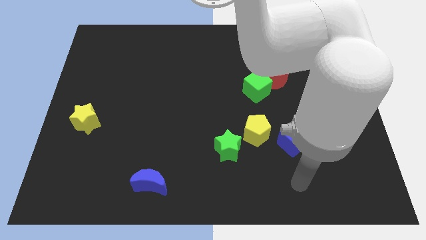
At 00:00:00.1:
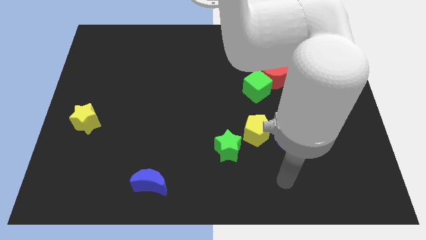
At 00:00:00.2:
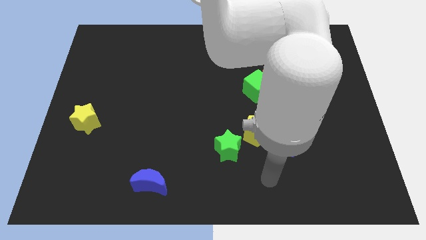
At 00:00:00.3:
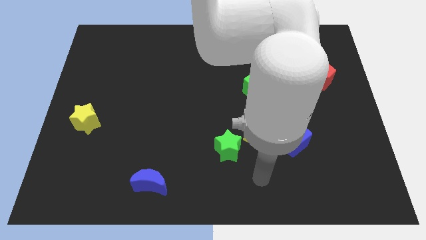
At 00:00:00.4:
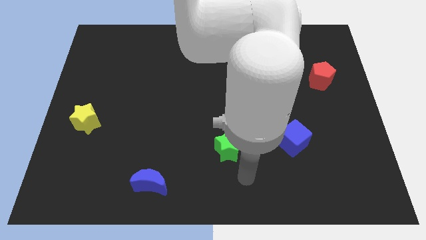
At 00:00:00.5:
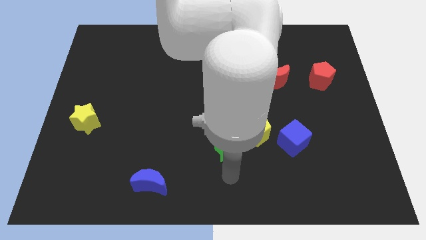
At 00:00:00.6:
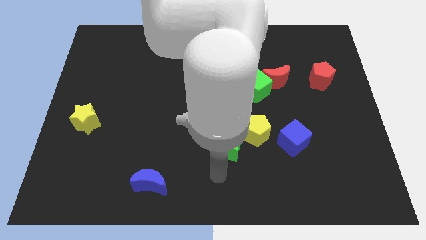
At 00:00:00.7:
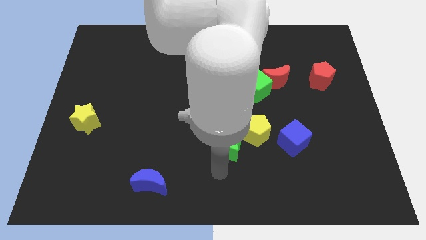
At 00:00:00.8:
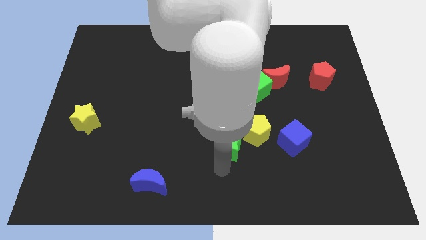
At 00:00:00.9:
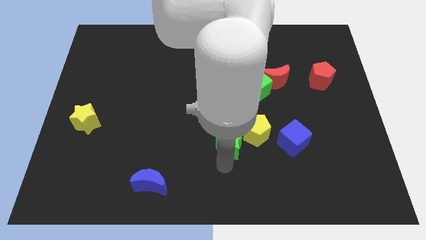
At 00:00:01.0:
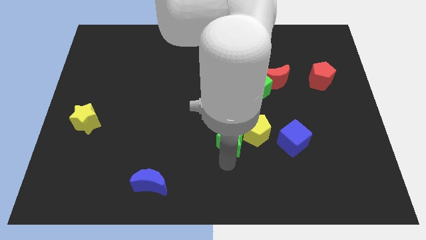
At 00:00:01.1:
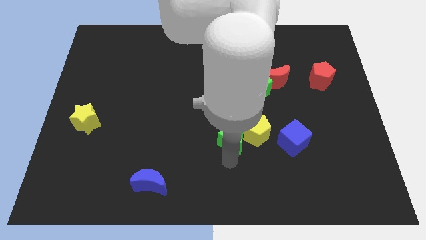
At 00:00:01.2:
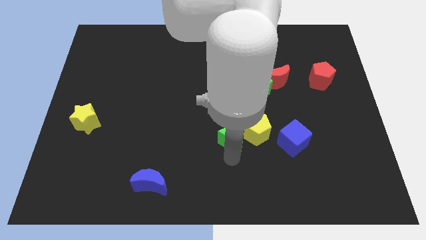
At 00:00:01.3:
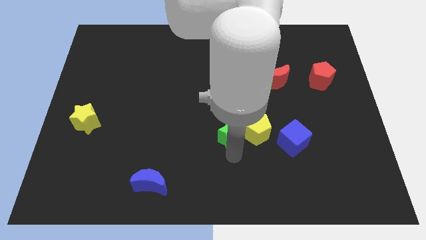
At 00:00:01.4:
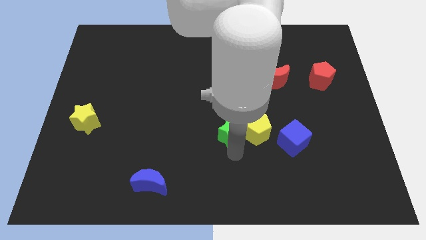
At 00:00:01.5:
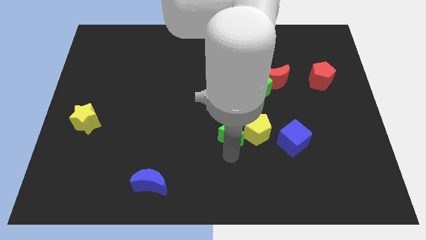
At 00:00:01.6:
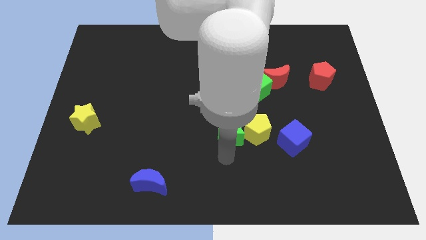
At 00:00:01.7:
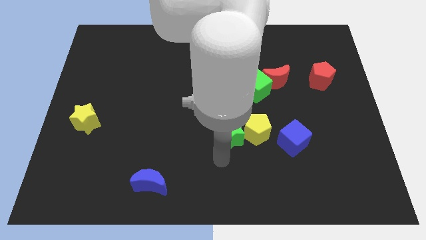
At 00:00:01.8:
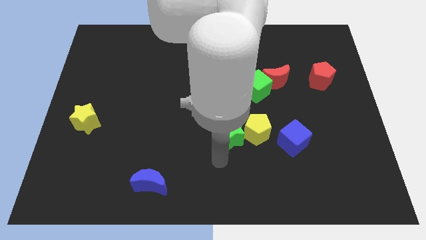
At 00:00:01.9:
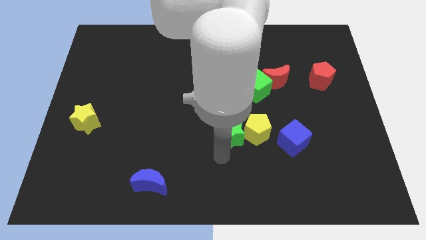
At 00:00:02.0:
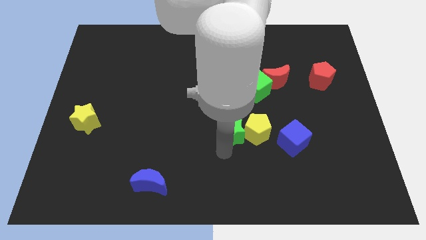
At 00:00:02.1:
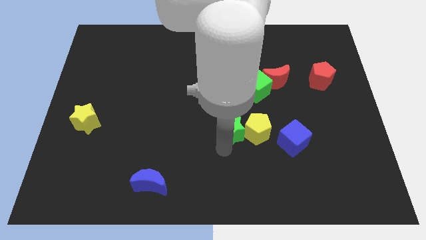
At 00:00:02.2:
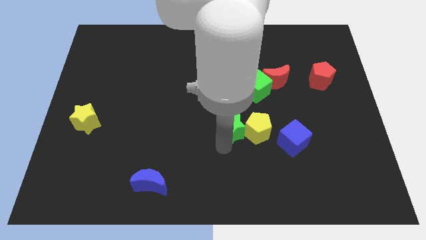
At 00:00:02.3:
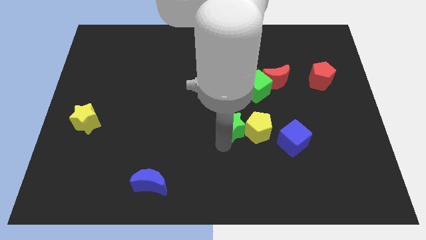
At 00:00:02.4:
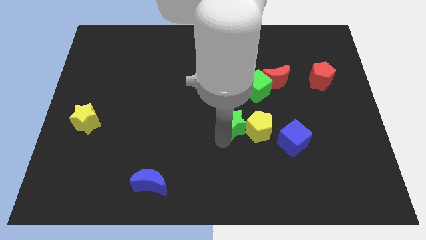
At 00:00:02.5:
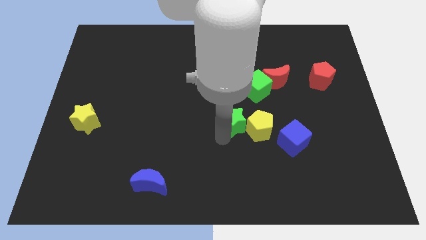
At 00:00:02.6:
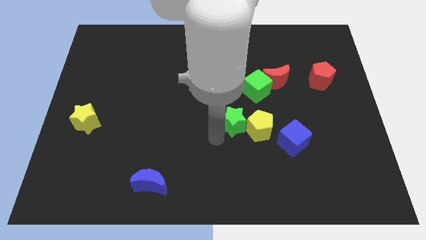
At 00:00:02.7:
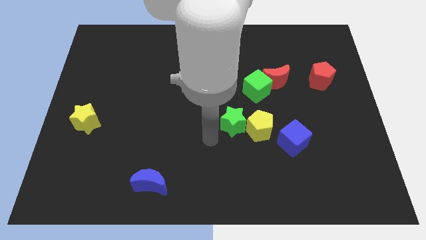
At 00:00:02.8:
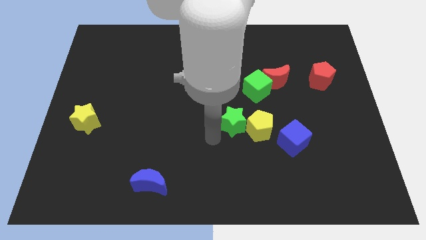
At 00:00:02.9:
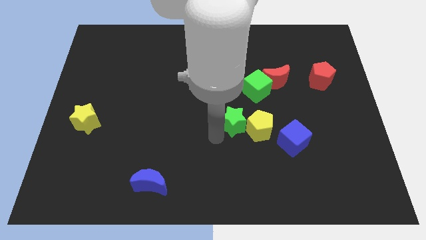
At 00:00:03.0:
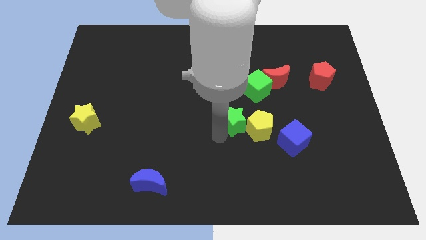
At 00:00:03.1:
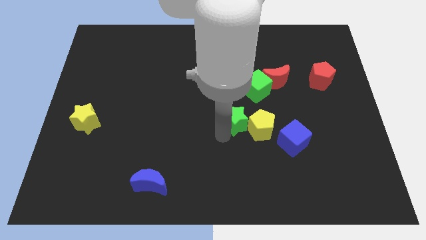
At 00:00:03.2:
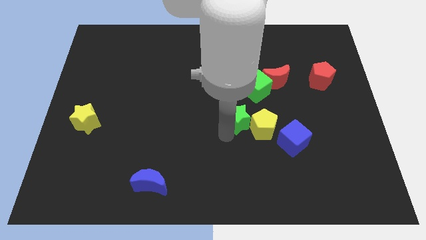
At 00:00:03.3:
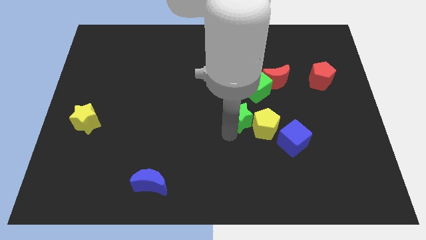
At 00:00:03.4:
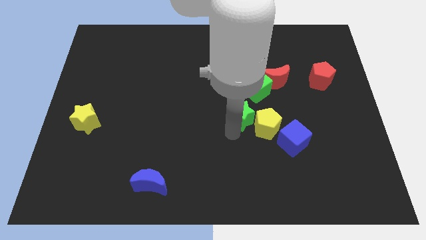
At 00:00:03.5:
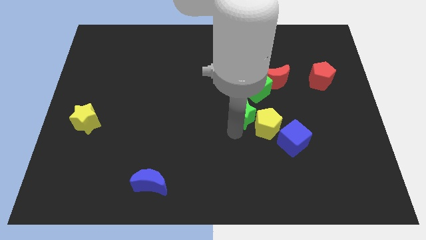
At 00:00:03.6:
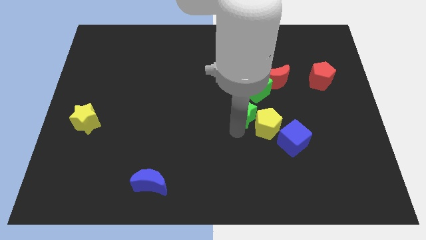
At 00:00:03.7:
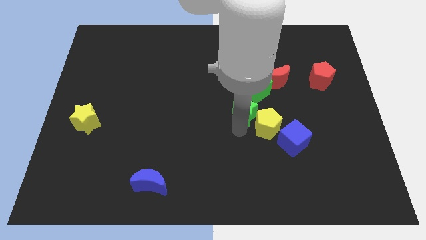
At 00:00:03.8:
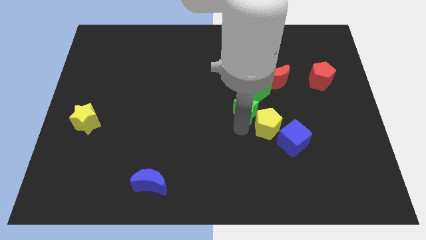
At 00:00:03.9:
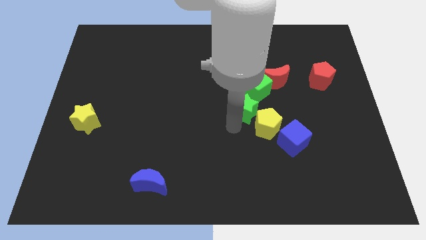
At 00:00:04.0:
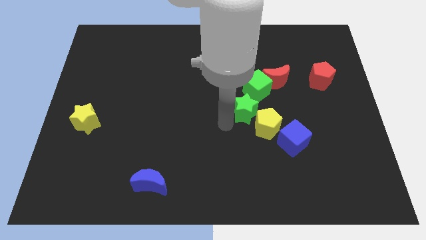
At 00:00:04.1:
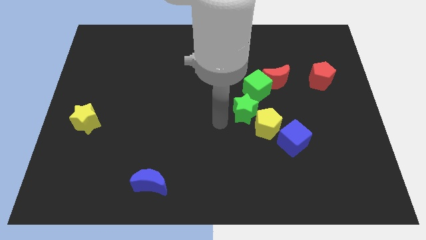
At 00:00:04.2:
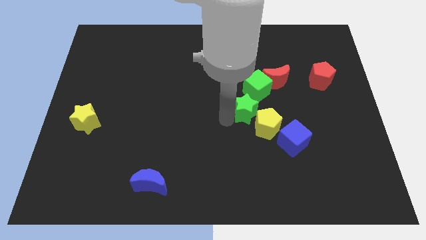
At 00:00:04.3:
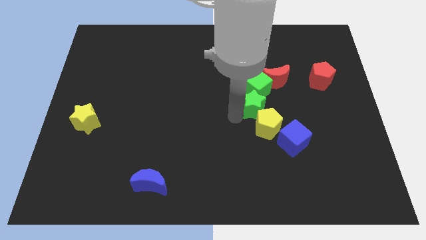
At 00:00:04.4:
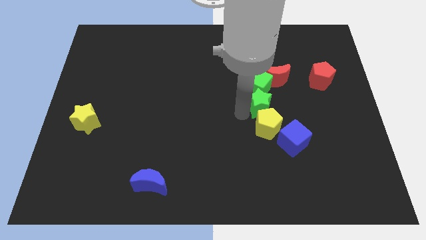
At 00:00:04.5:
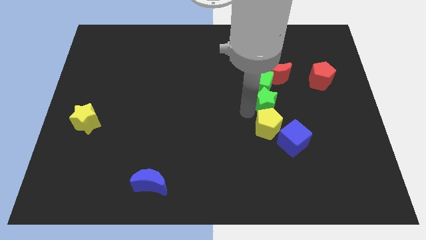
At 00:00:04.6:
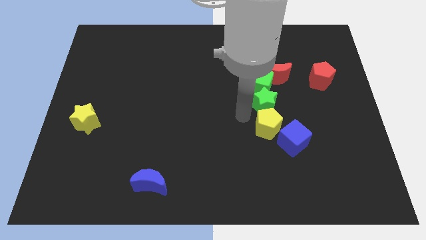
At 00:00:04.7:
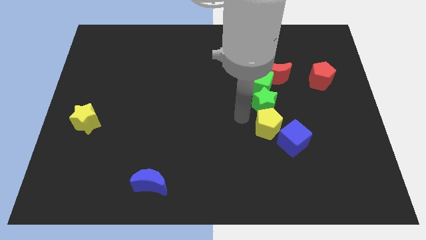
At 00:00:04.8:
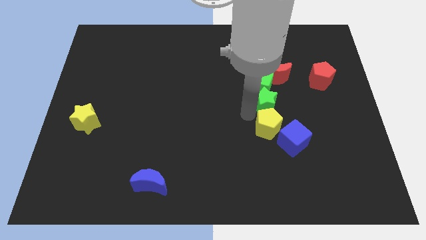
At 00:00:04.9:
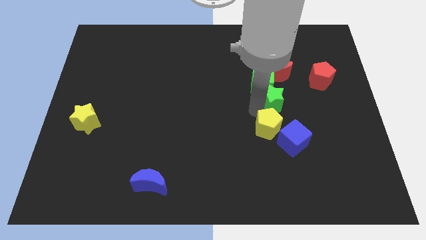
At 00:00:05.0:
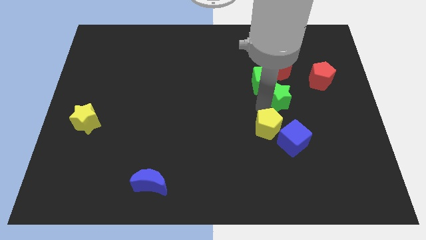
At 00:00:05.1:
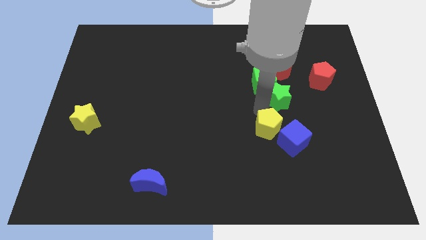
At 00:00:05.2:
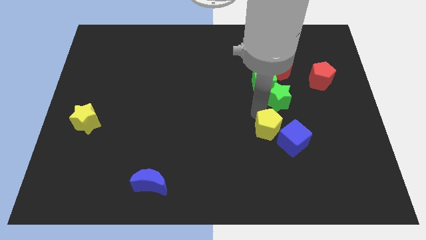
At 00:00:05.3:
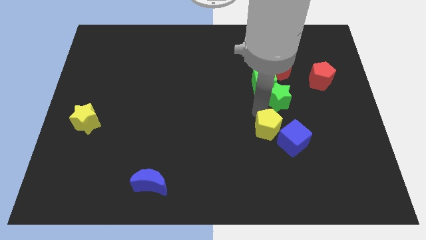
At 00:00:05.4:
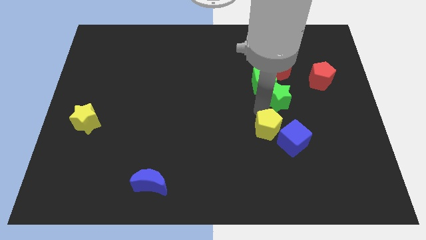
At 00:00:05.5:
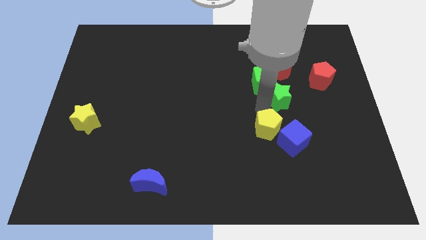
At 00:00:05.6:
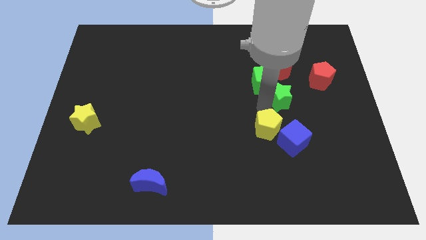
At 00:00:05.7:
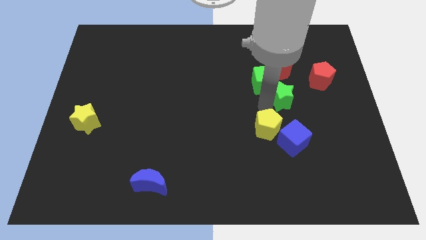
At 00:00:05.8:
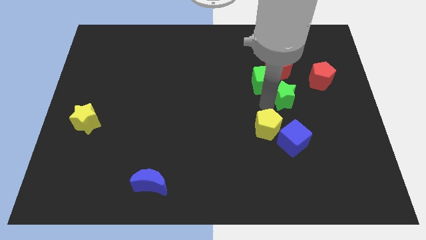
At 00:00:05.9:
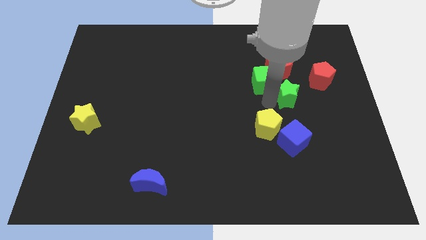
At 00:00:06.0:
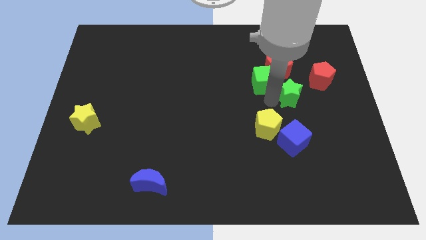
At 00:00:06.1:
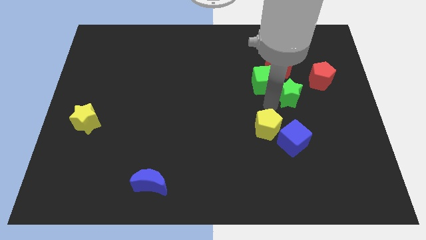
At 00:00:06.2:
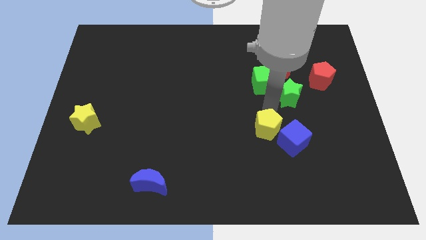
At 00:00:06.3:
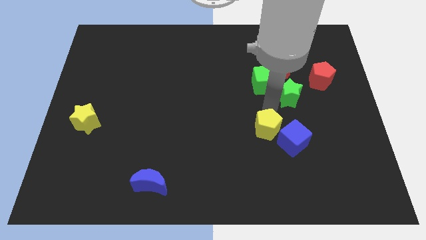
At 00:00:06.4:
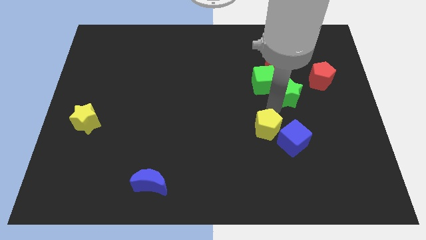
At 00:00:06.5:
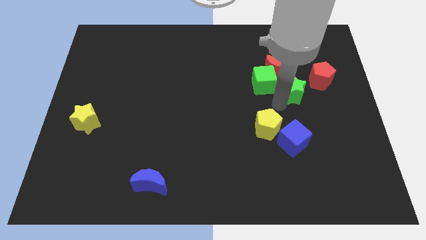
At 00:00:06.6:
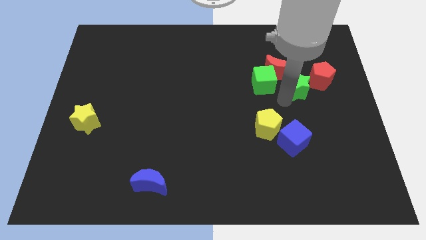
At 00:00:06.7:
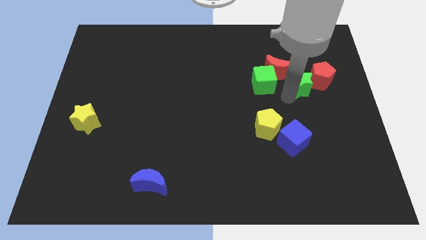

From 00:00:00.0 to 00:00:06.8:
slide the green star to the red pentagon
